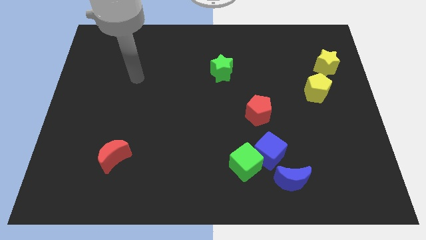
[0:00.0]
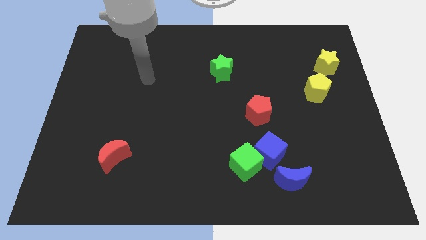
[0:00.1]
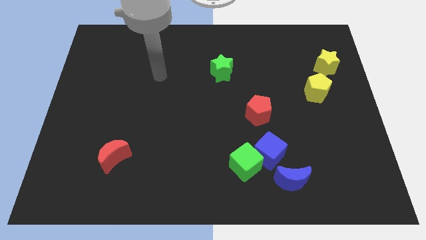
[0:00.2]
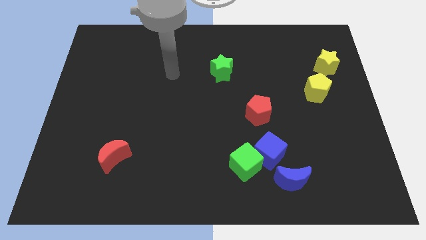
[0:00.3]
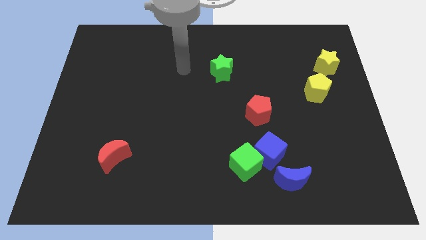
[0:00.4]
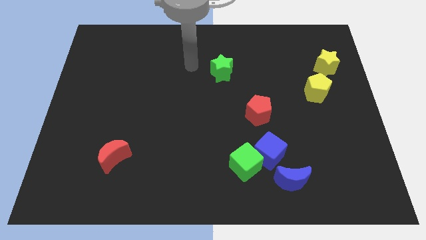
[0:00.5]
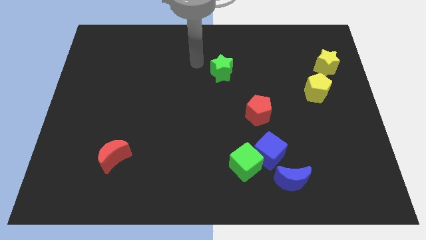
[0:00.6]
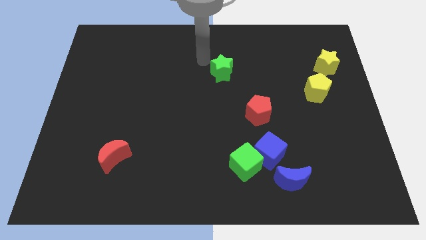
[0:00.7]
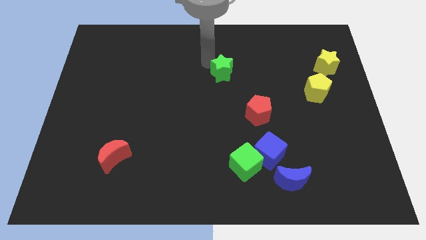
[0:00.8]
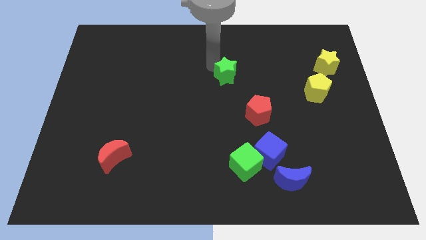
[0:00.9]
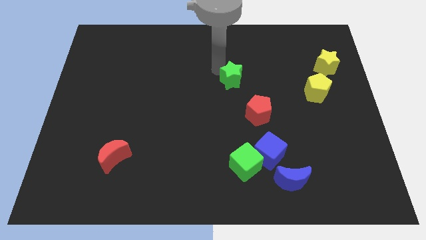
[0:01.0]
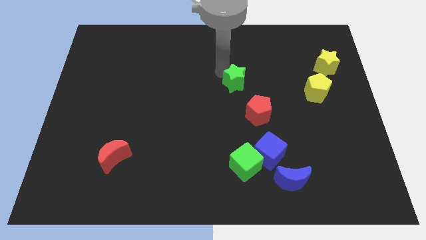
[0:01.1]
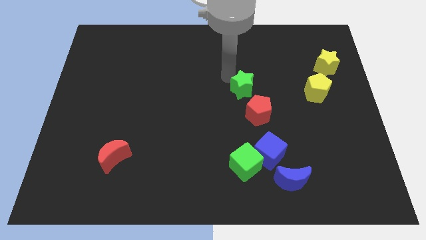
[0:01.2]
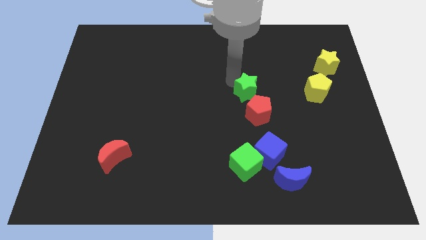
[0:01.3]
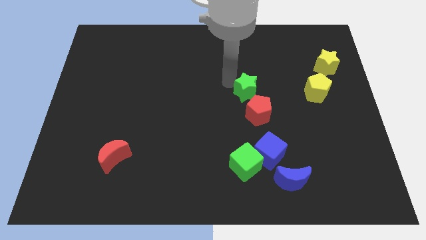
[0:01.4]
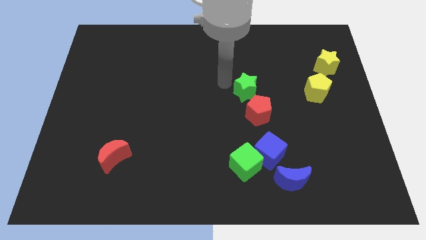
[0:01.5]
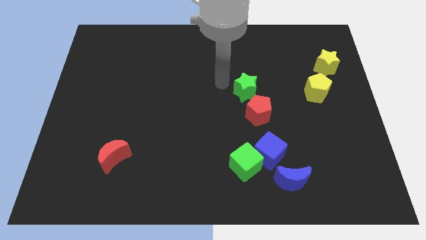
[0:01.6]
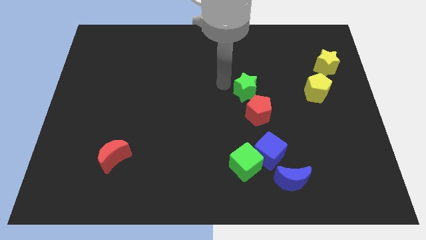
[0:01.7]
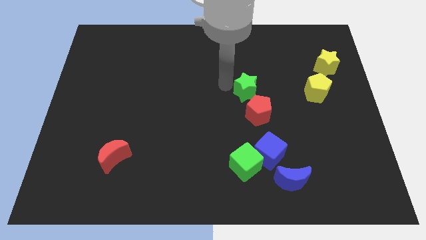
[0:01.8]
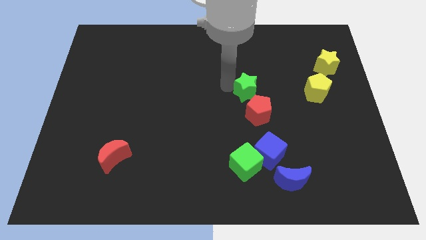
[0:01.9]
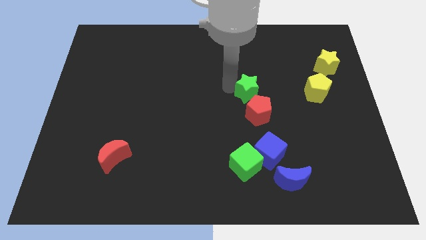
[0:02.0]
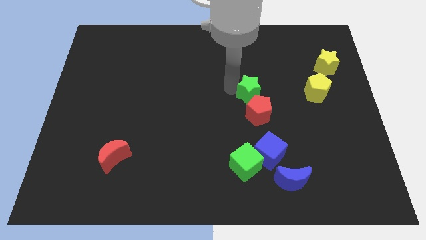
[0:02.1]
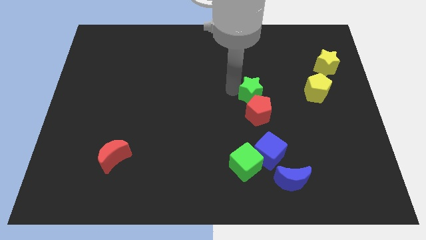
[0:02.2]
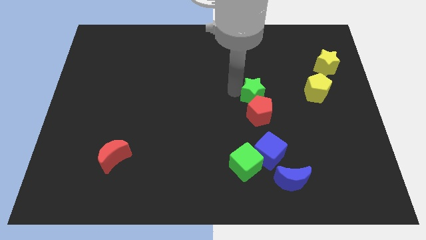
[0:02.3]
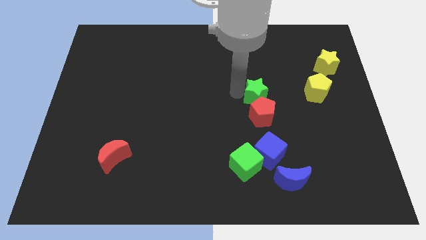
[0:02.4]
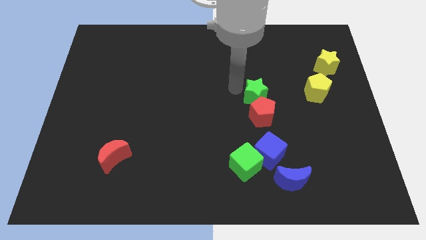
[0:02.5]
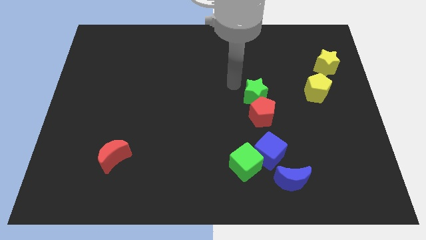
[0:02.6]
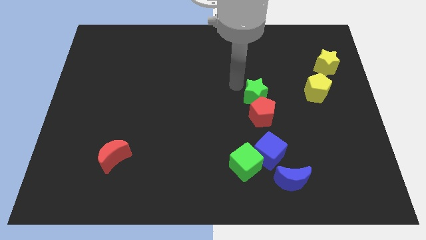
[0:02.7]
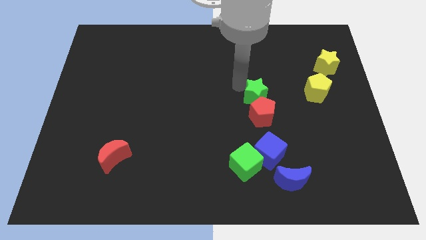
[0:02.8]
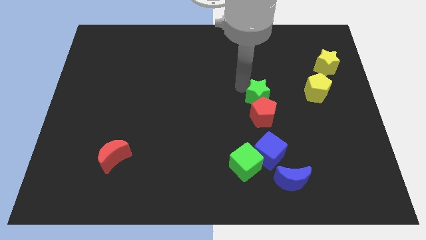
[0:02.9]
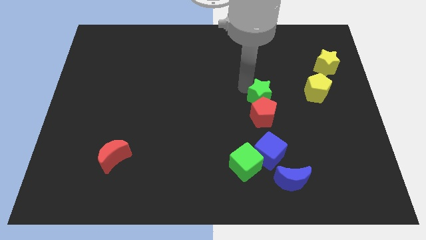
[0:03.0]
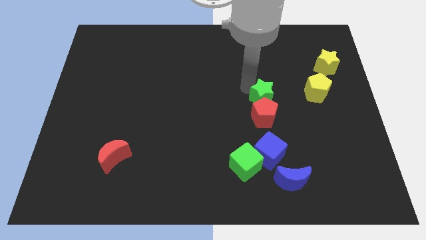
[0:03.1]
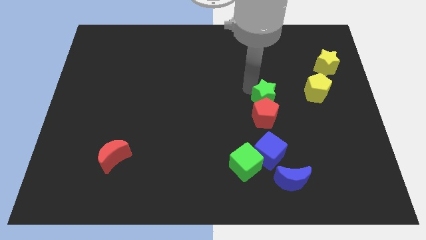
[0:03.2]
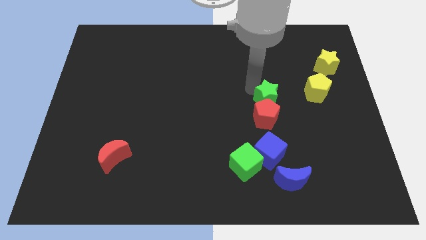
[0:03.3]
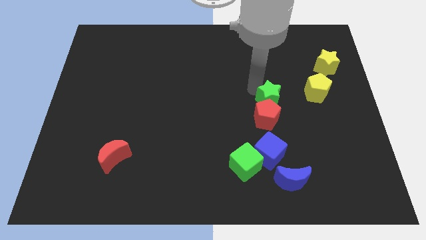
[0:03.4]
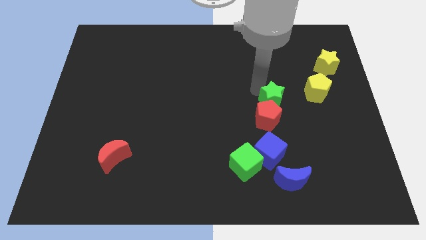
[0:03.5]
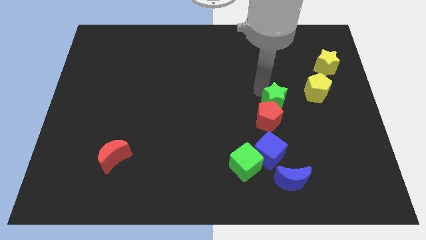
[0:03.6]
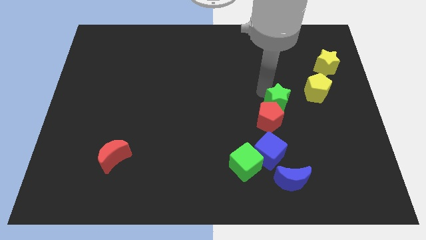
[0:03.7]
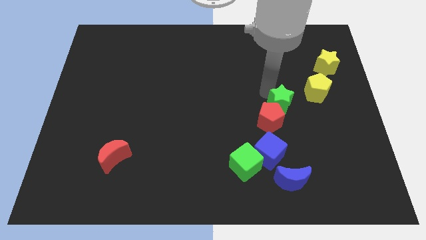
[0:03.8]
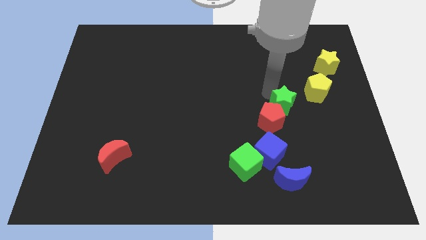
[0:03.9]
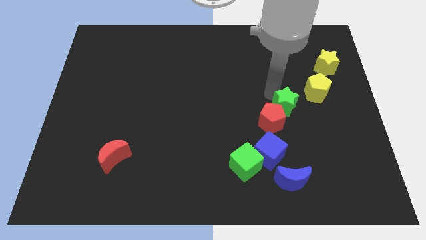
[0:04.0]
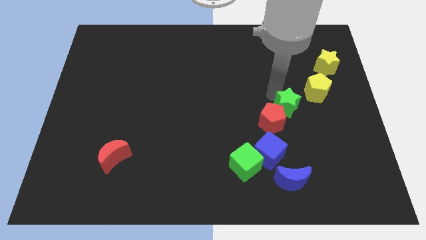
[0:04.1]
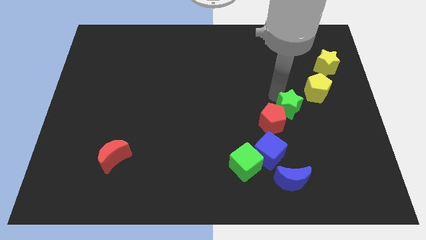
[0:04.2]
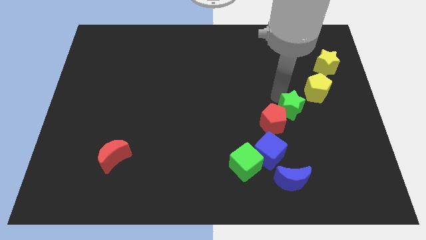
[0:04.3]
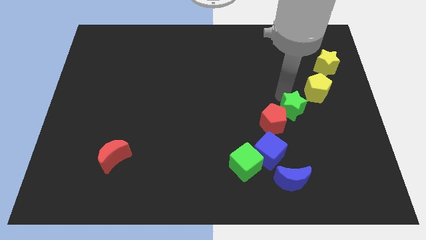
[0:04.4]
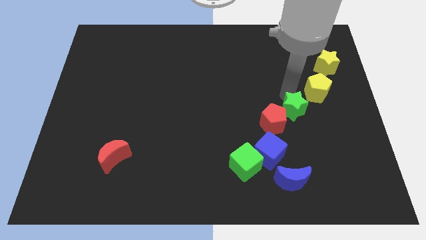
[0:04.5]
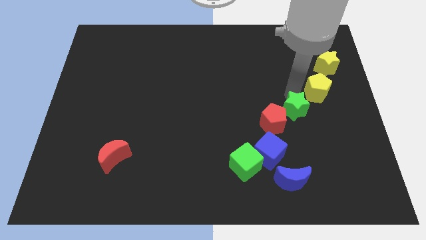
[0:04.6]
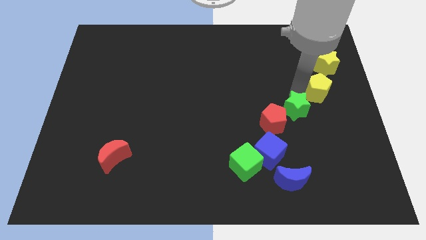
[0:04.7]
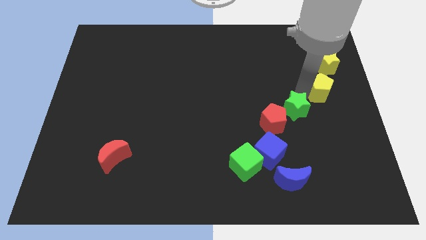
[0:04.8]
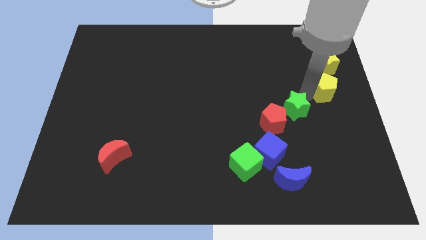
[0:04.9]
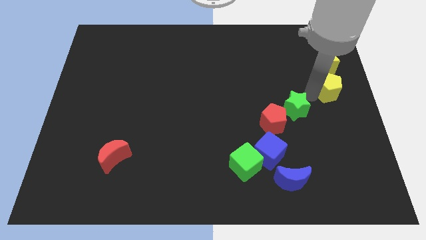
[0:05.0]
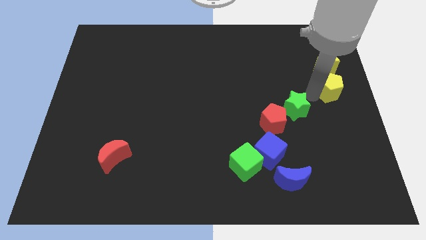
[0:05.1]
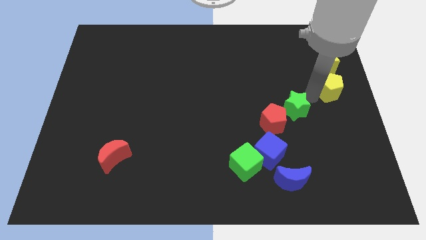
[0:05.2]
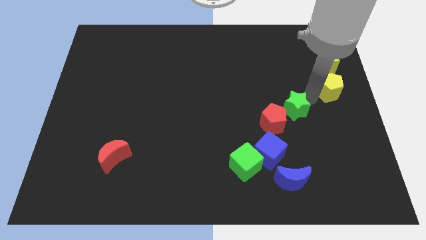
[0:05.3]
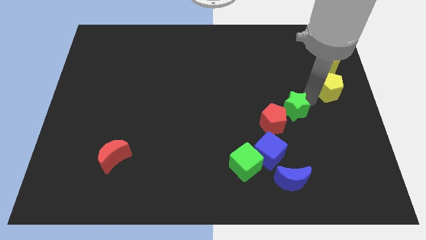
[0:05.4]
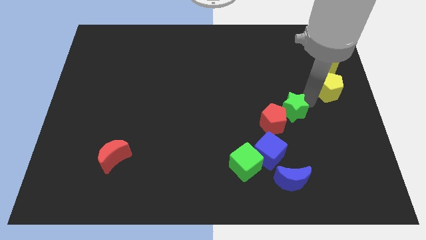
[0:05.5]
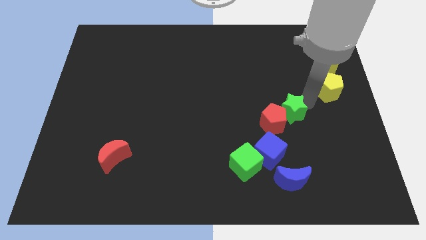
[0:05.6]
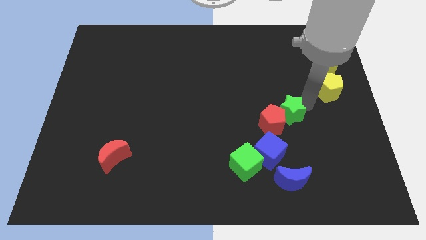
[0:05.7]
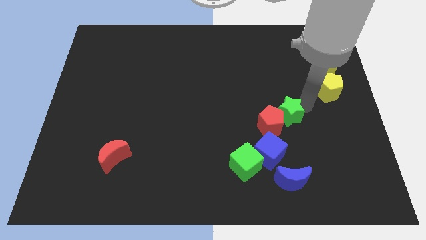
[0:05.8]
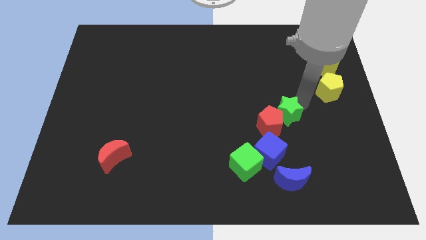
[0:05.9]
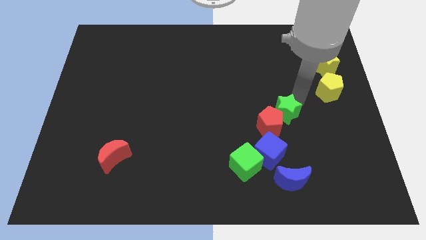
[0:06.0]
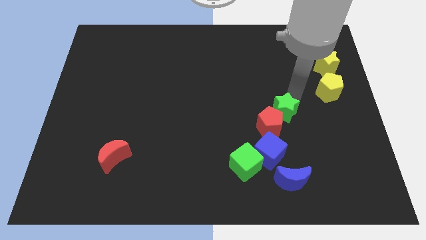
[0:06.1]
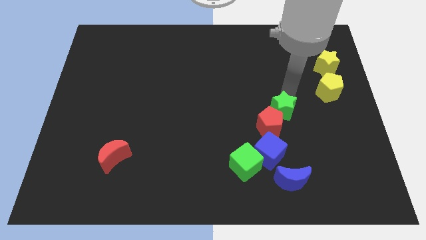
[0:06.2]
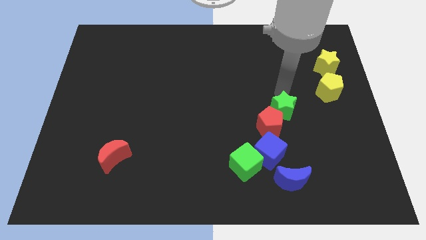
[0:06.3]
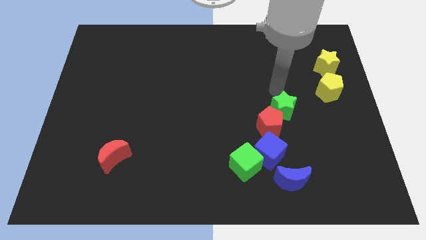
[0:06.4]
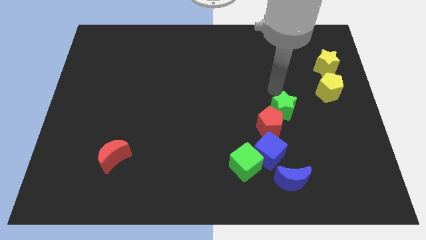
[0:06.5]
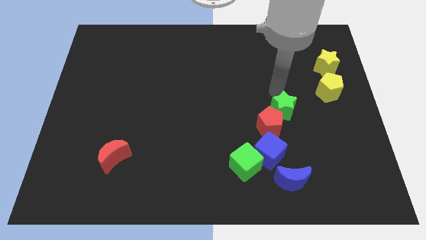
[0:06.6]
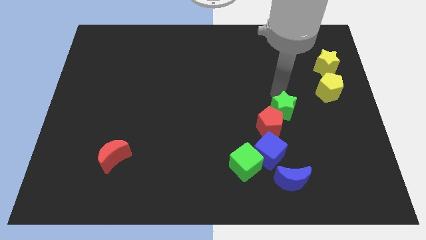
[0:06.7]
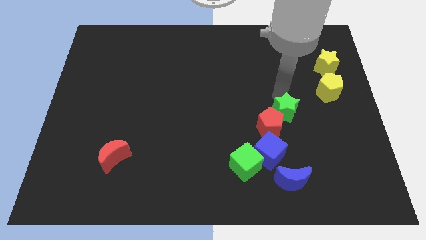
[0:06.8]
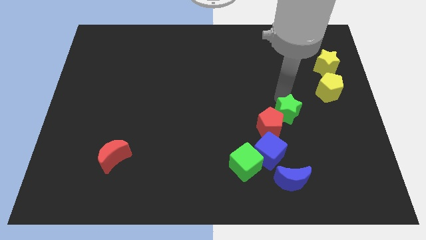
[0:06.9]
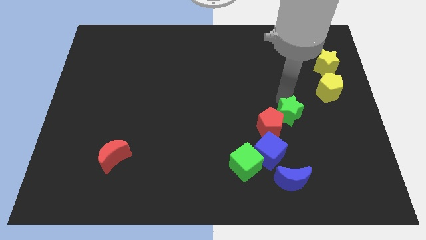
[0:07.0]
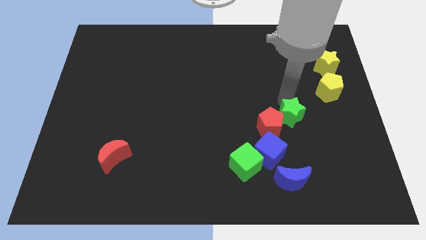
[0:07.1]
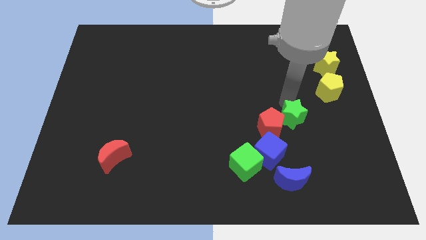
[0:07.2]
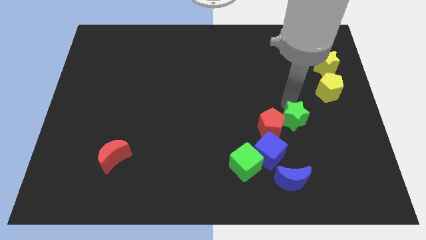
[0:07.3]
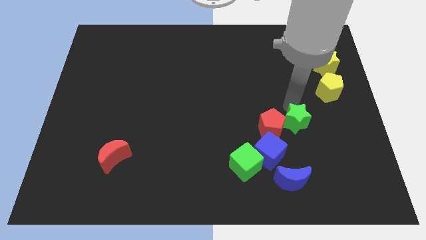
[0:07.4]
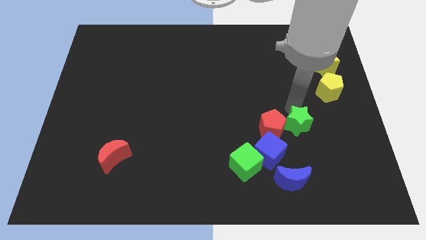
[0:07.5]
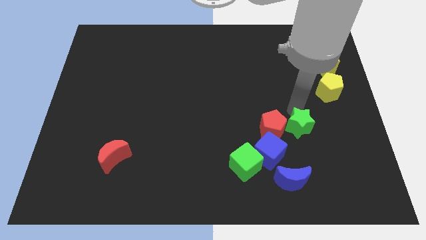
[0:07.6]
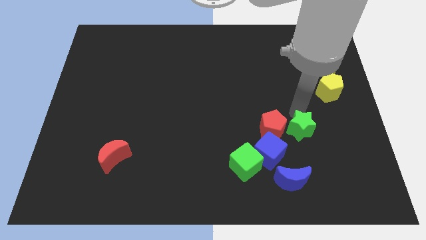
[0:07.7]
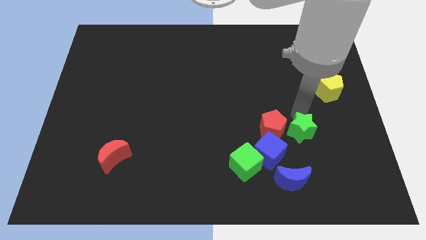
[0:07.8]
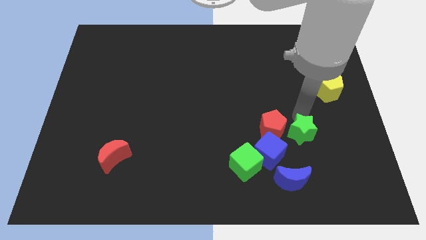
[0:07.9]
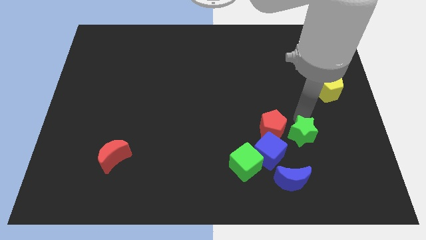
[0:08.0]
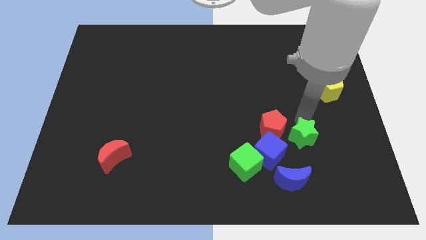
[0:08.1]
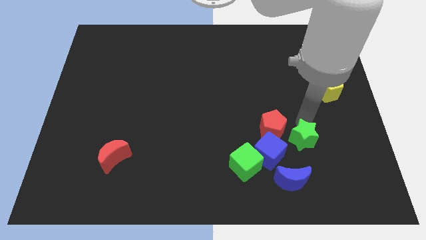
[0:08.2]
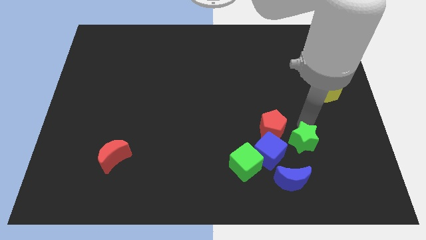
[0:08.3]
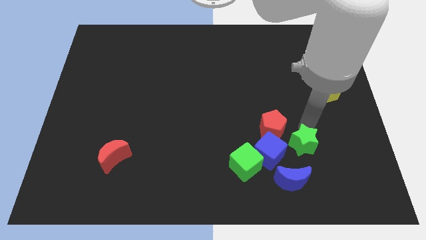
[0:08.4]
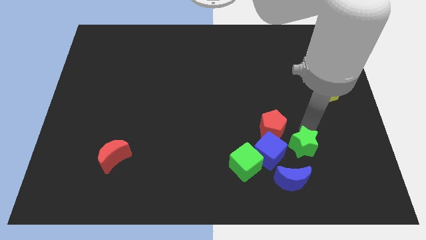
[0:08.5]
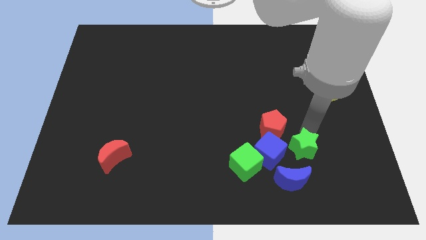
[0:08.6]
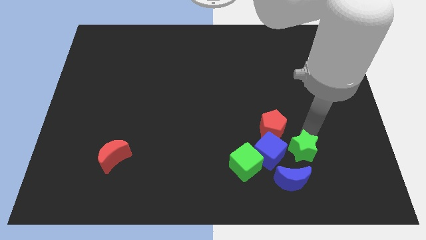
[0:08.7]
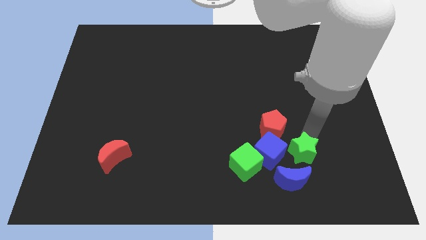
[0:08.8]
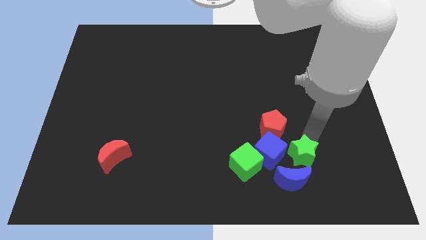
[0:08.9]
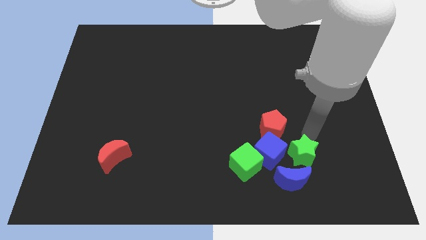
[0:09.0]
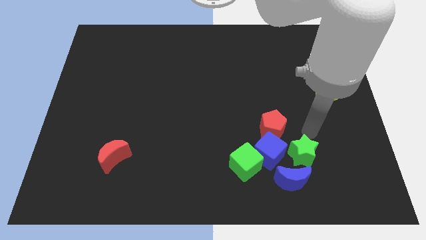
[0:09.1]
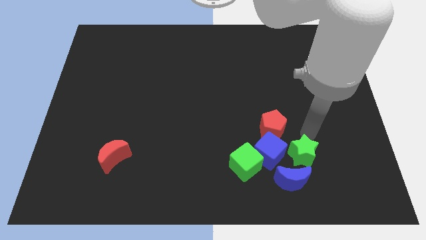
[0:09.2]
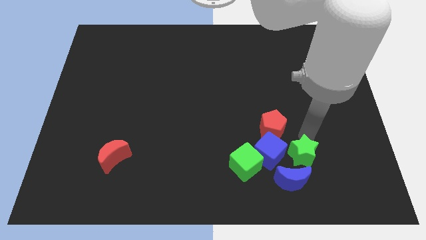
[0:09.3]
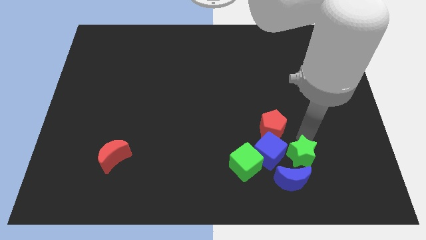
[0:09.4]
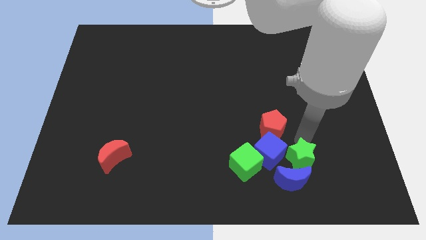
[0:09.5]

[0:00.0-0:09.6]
slide the green star towards the blue moon
